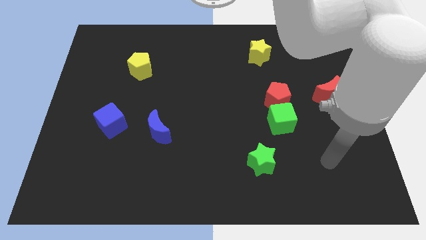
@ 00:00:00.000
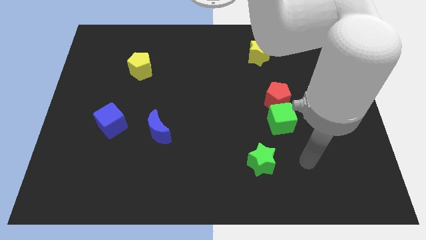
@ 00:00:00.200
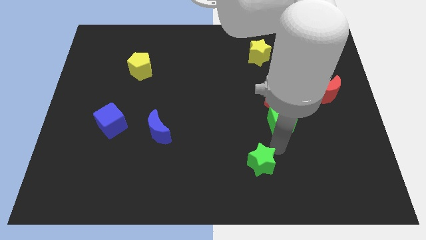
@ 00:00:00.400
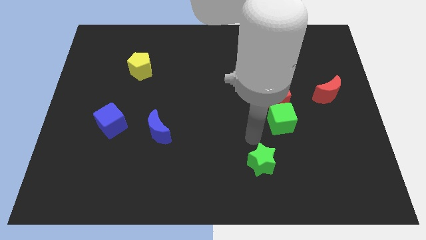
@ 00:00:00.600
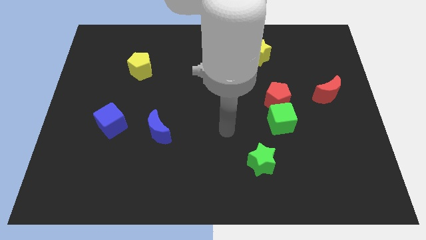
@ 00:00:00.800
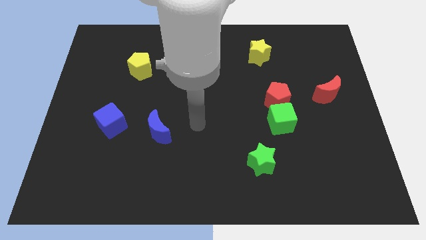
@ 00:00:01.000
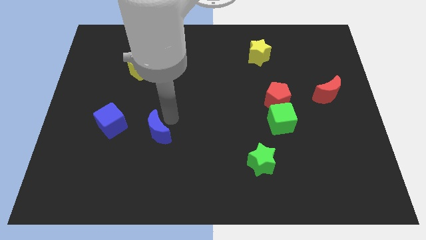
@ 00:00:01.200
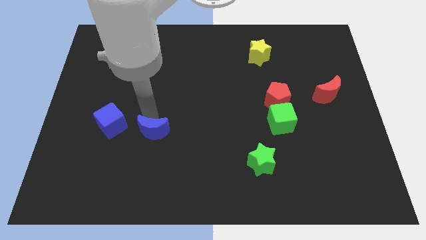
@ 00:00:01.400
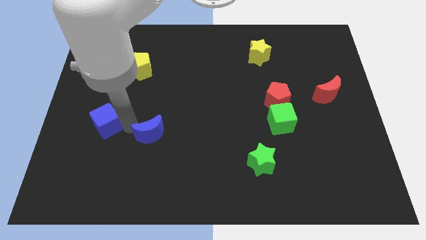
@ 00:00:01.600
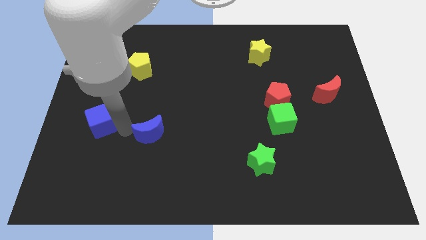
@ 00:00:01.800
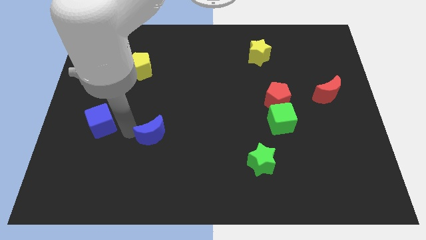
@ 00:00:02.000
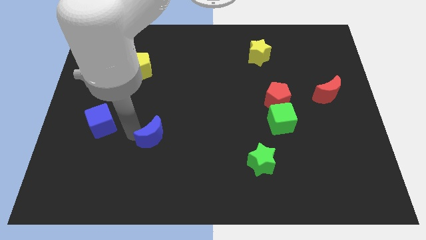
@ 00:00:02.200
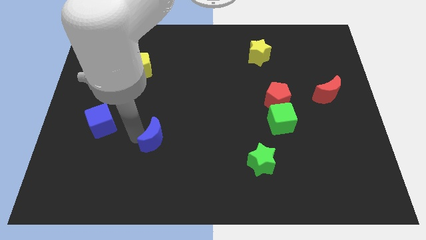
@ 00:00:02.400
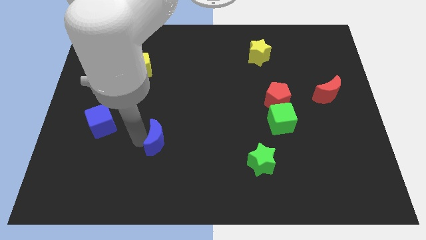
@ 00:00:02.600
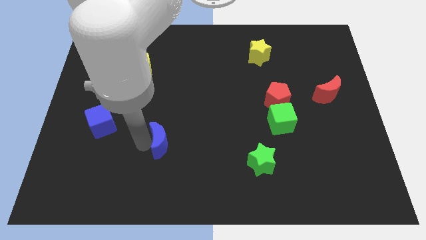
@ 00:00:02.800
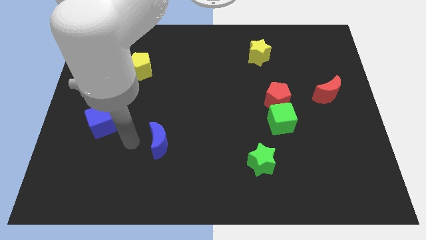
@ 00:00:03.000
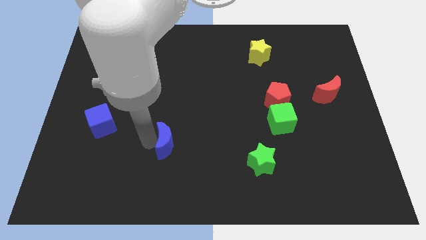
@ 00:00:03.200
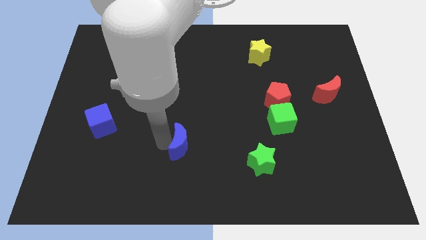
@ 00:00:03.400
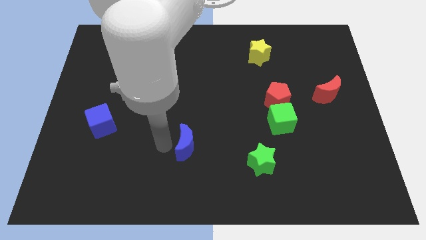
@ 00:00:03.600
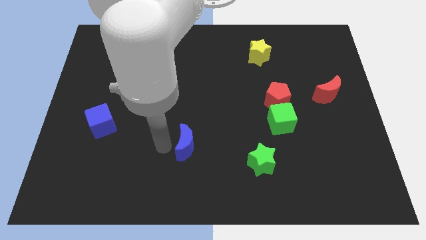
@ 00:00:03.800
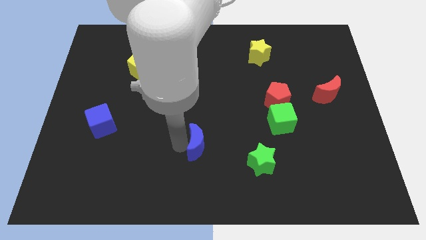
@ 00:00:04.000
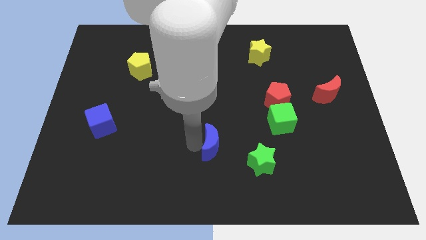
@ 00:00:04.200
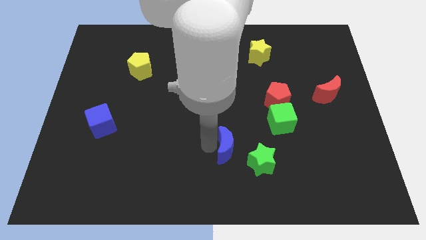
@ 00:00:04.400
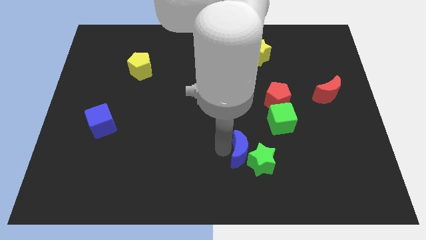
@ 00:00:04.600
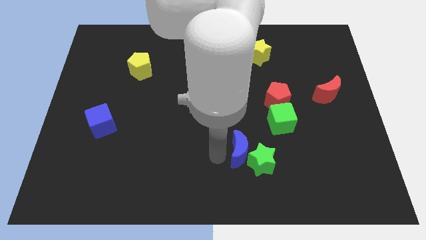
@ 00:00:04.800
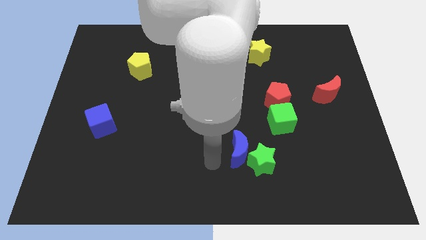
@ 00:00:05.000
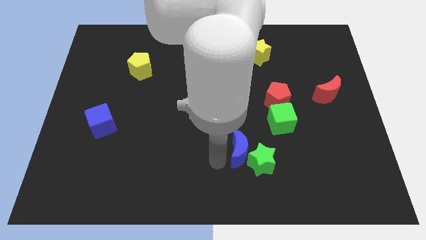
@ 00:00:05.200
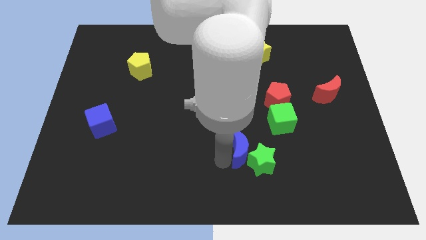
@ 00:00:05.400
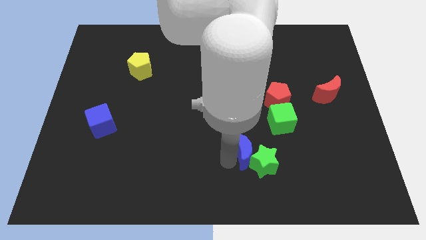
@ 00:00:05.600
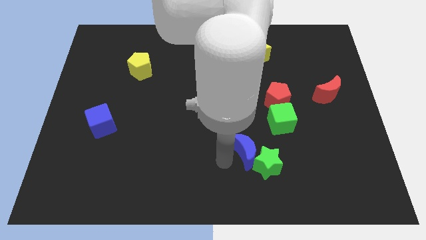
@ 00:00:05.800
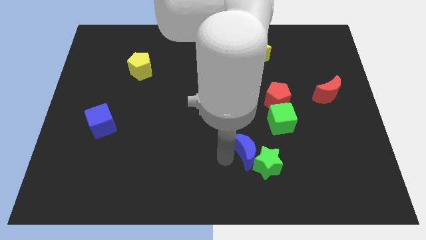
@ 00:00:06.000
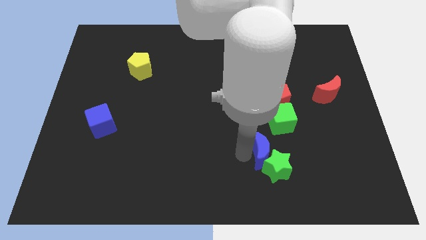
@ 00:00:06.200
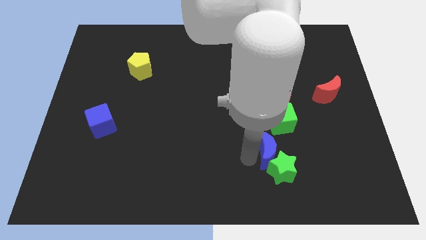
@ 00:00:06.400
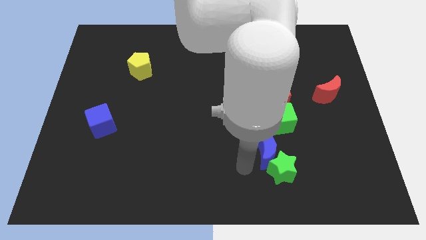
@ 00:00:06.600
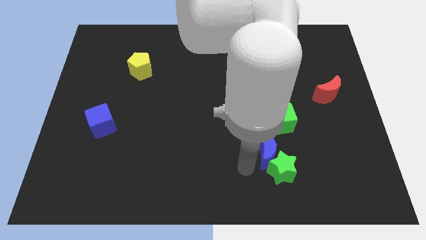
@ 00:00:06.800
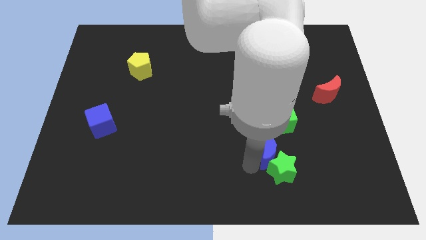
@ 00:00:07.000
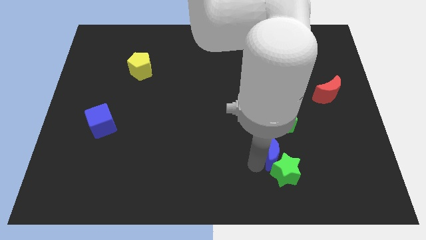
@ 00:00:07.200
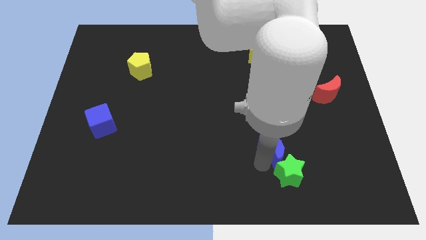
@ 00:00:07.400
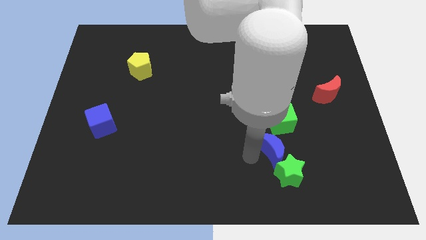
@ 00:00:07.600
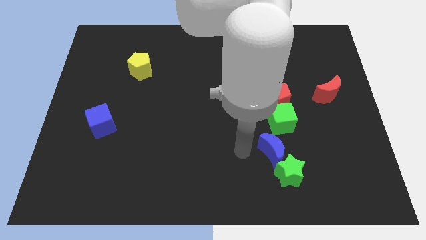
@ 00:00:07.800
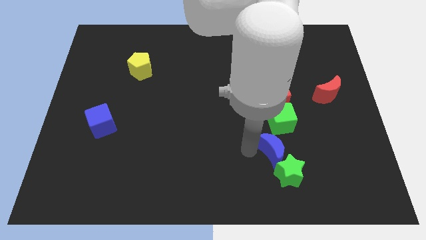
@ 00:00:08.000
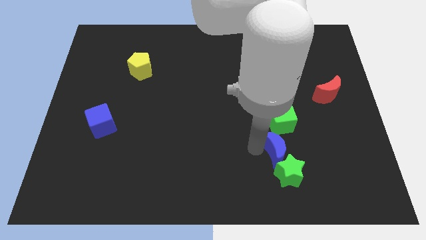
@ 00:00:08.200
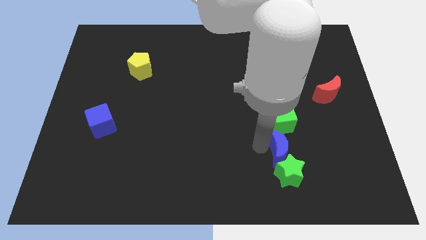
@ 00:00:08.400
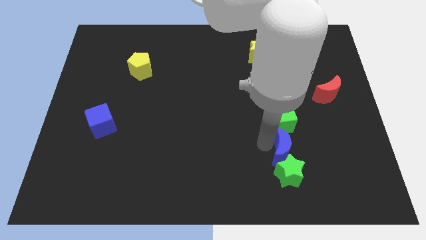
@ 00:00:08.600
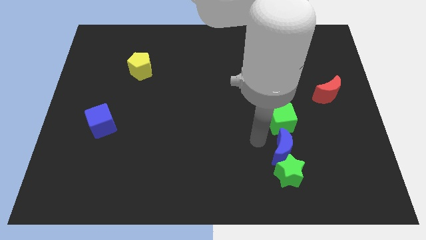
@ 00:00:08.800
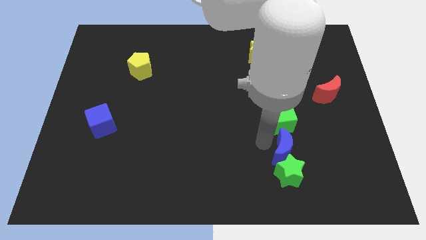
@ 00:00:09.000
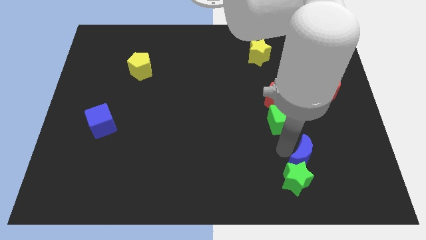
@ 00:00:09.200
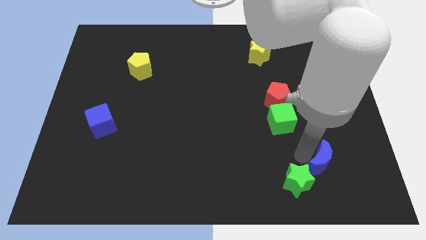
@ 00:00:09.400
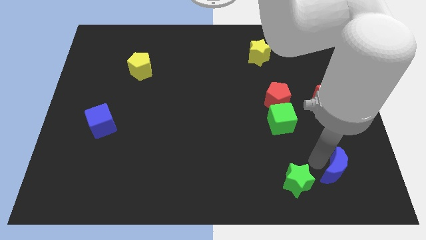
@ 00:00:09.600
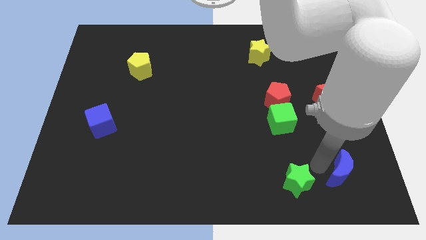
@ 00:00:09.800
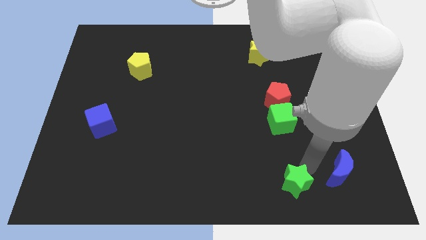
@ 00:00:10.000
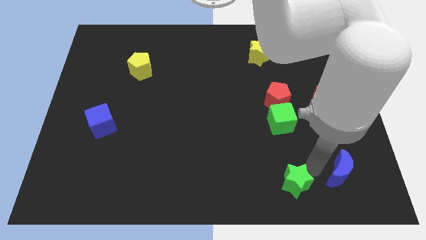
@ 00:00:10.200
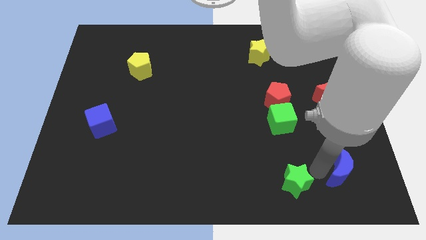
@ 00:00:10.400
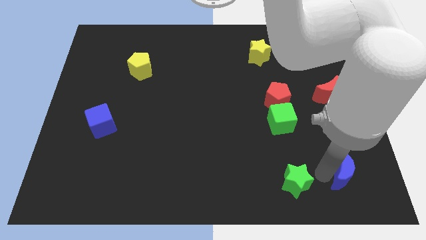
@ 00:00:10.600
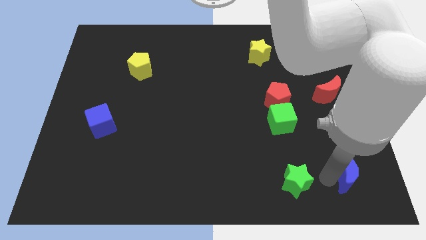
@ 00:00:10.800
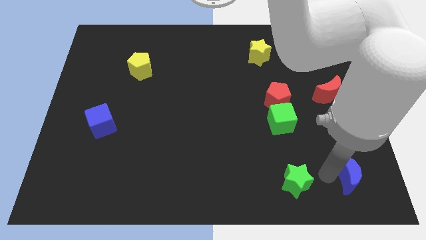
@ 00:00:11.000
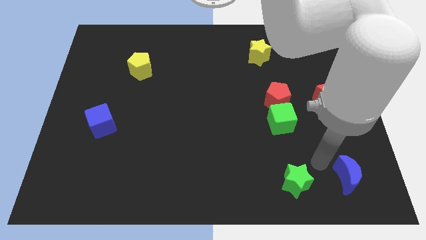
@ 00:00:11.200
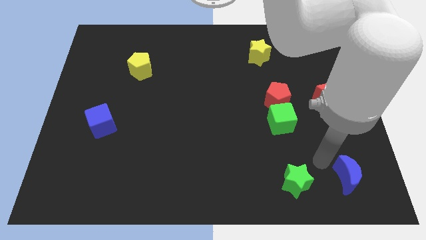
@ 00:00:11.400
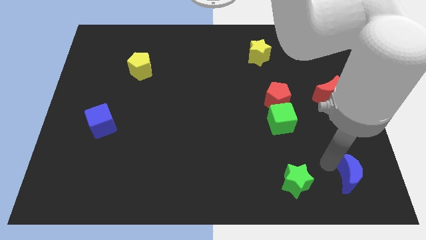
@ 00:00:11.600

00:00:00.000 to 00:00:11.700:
move the blue moon to the bottom right

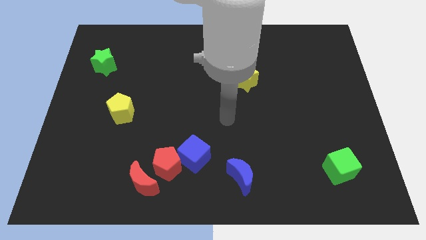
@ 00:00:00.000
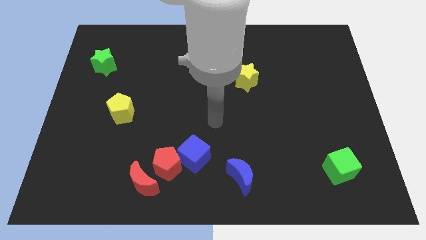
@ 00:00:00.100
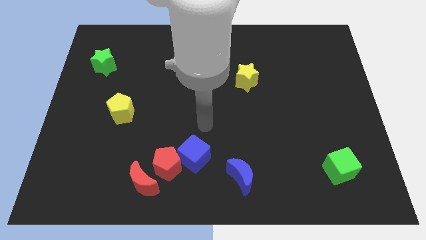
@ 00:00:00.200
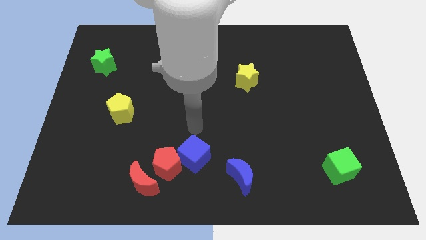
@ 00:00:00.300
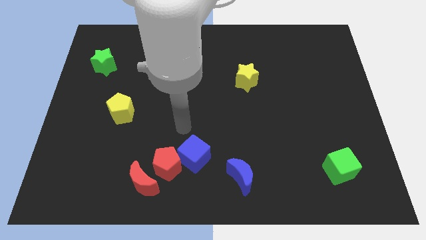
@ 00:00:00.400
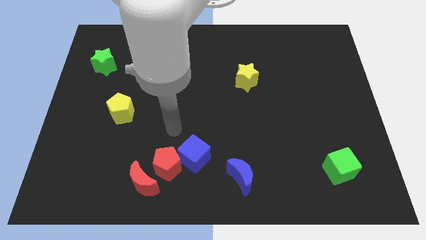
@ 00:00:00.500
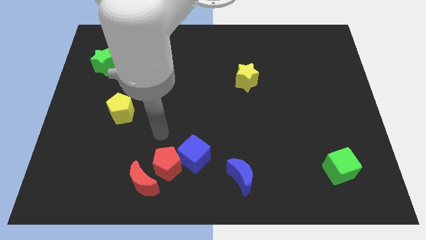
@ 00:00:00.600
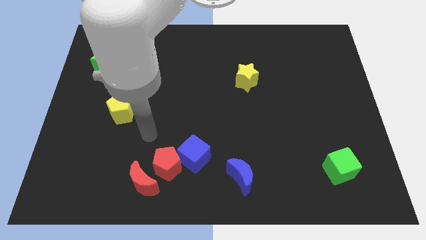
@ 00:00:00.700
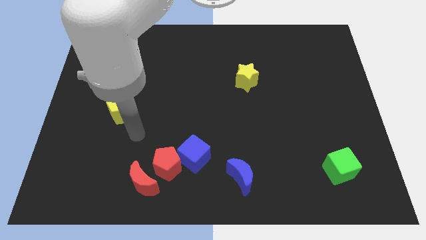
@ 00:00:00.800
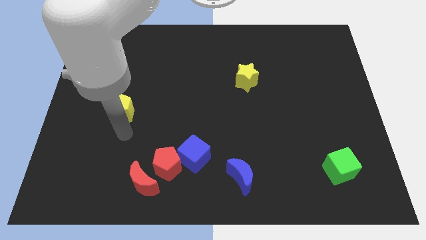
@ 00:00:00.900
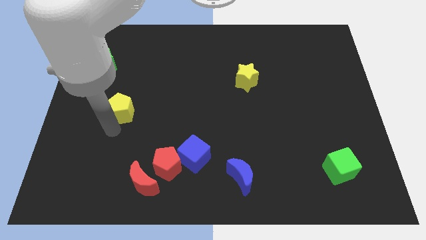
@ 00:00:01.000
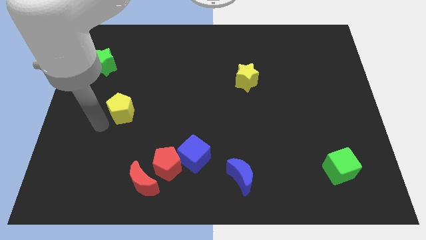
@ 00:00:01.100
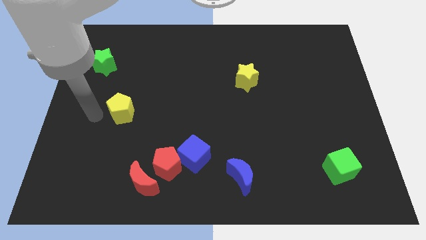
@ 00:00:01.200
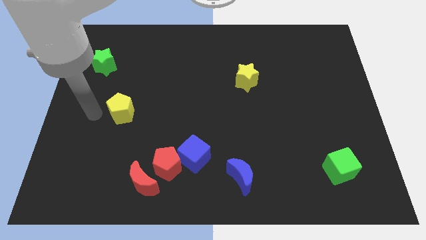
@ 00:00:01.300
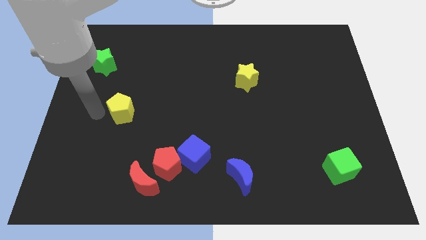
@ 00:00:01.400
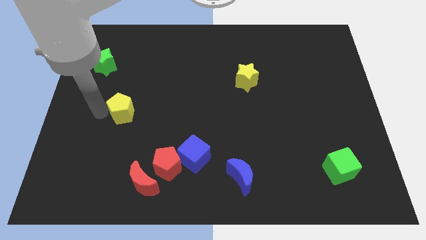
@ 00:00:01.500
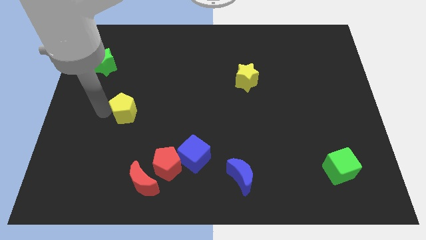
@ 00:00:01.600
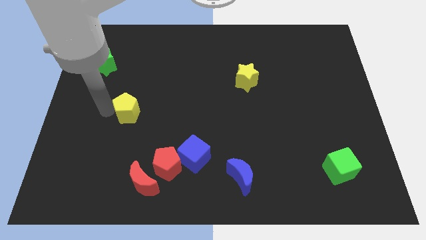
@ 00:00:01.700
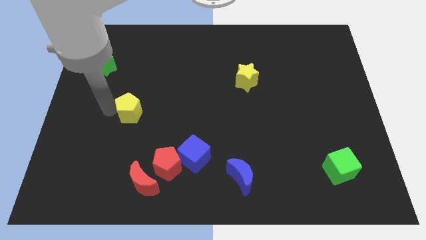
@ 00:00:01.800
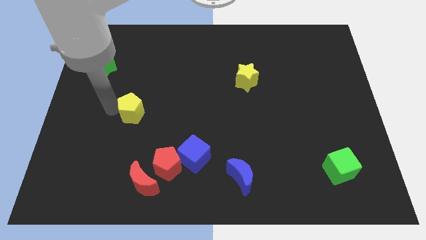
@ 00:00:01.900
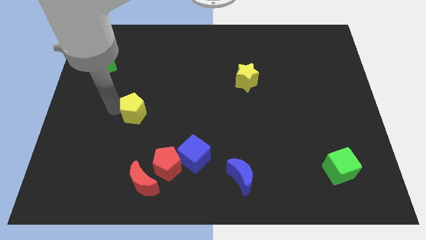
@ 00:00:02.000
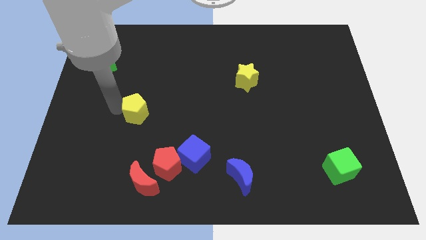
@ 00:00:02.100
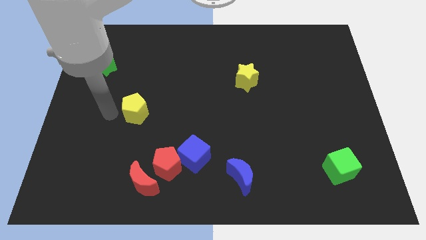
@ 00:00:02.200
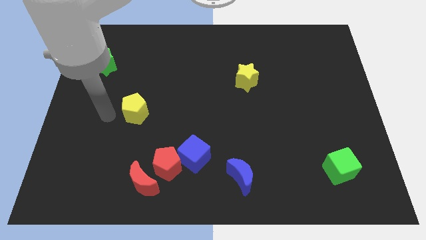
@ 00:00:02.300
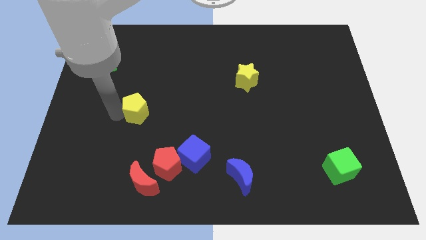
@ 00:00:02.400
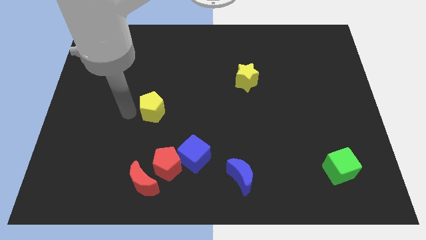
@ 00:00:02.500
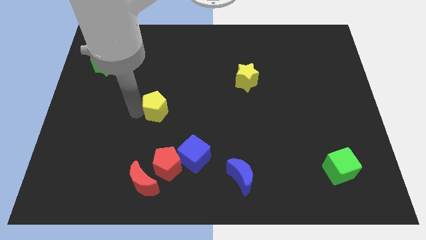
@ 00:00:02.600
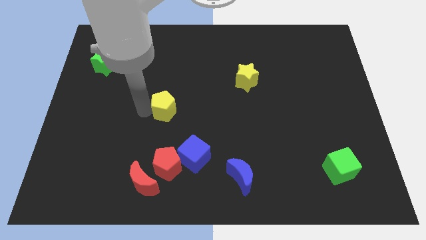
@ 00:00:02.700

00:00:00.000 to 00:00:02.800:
push the yellow pentagon to the middle of the board
